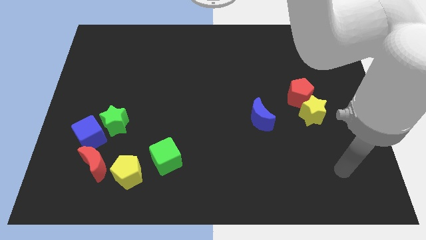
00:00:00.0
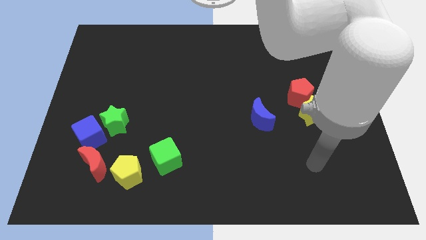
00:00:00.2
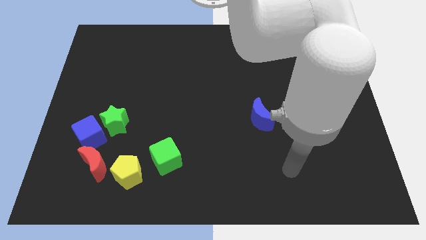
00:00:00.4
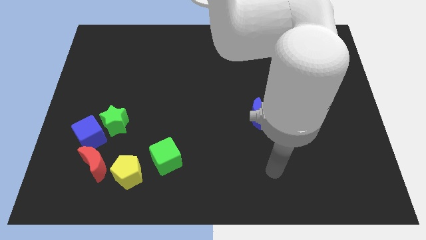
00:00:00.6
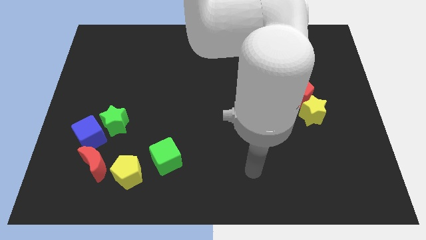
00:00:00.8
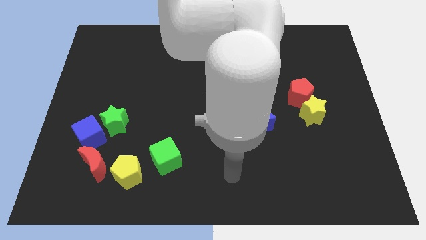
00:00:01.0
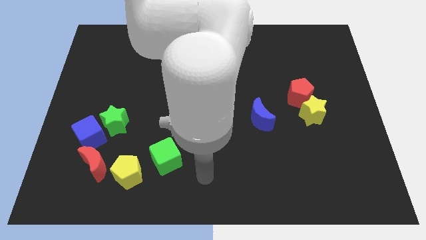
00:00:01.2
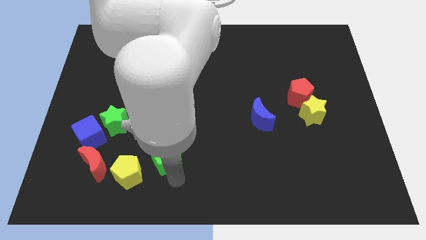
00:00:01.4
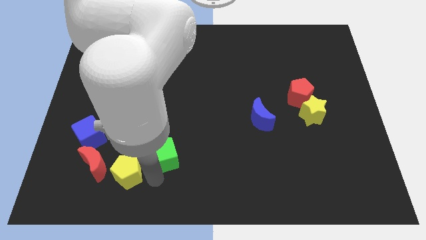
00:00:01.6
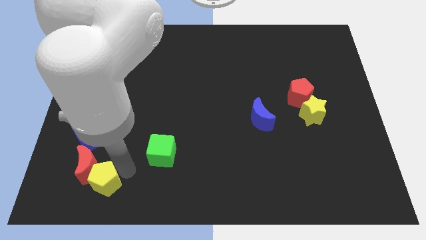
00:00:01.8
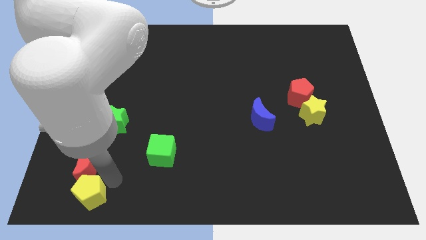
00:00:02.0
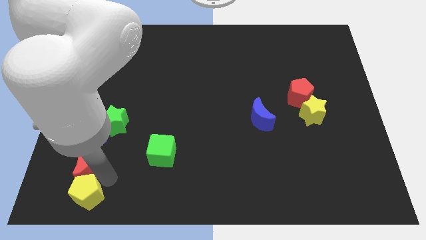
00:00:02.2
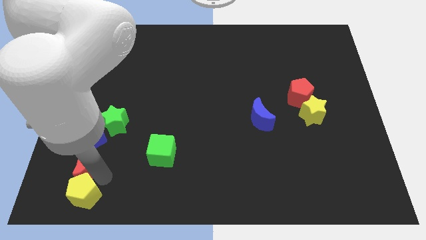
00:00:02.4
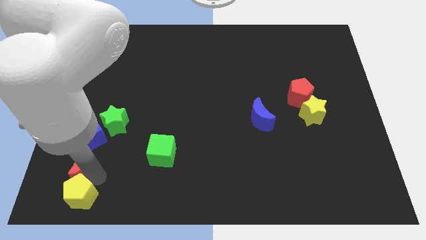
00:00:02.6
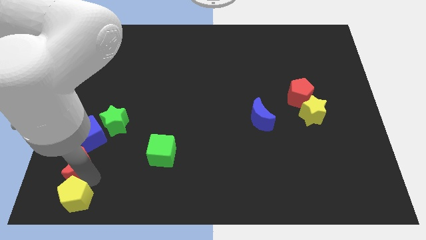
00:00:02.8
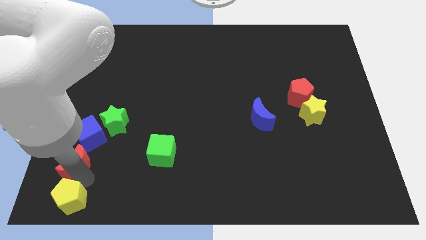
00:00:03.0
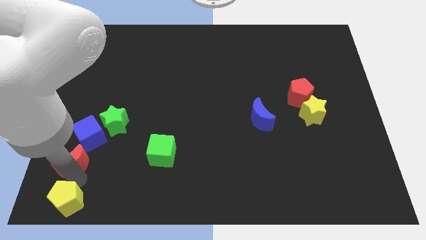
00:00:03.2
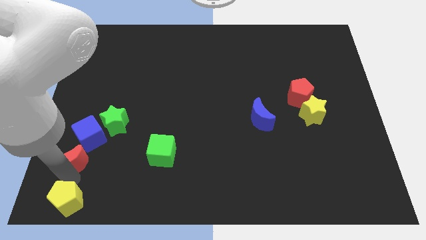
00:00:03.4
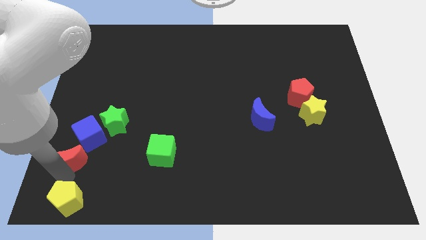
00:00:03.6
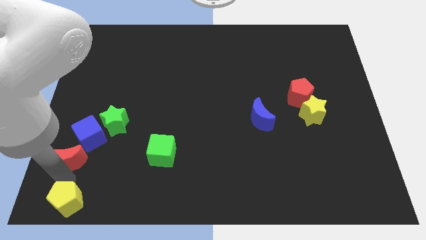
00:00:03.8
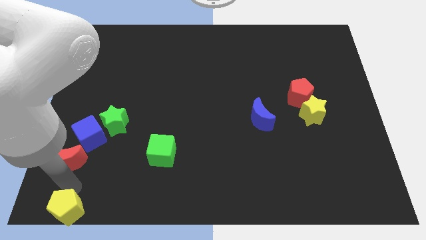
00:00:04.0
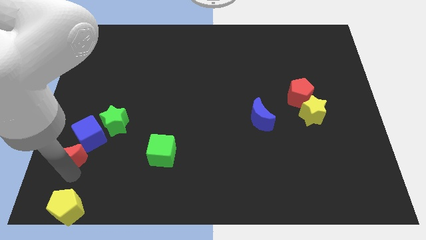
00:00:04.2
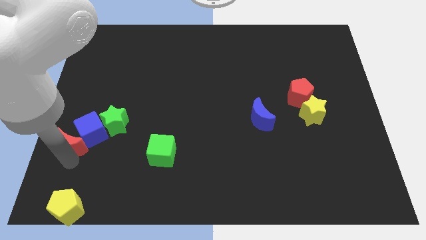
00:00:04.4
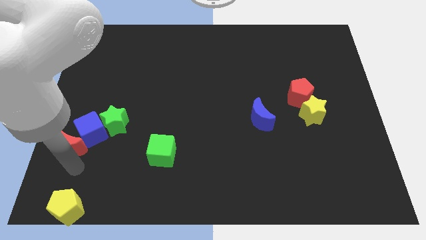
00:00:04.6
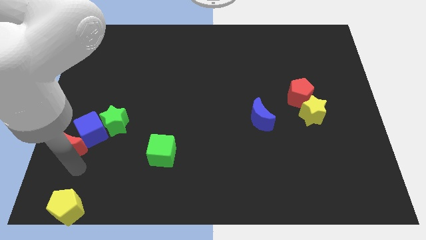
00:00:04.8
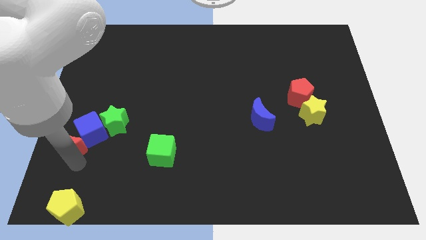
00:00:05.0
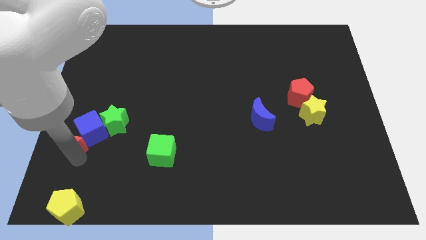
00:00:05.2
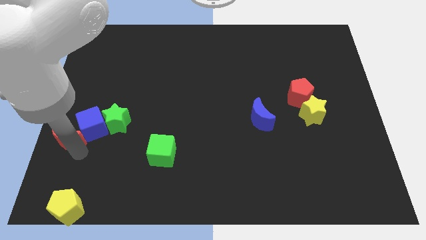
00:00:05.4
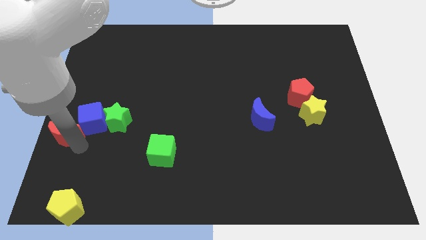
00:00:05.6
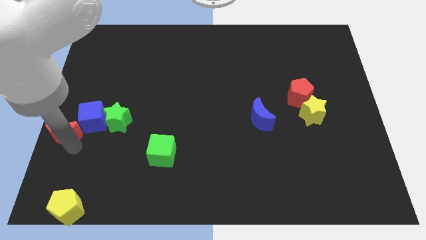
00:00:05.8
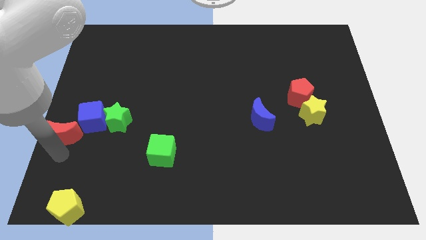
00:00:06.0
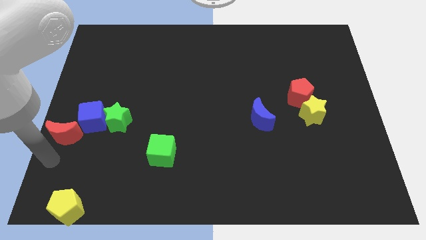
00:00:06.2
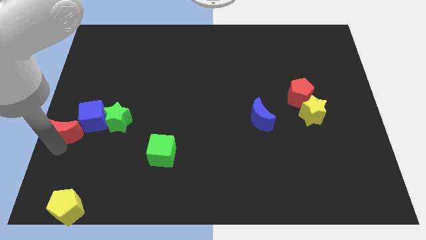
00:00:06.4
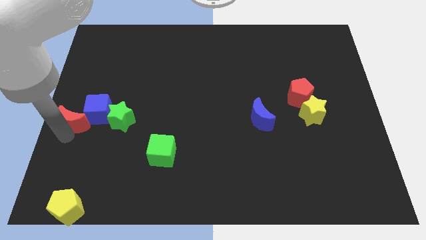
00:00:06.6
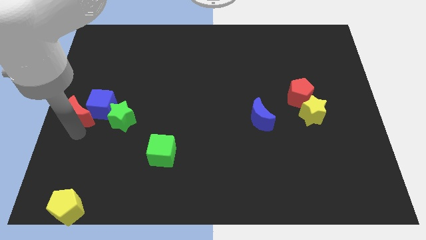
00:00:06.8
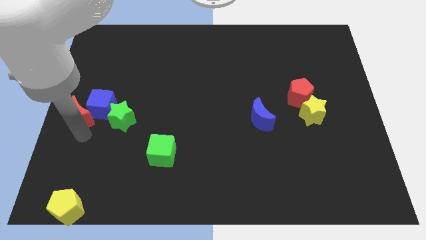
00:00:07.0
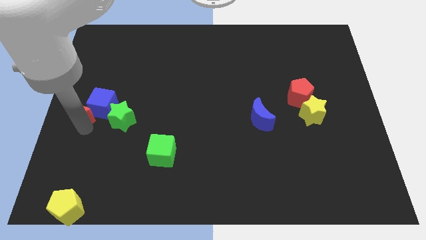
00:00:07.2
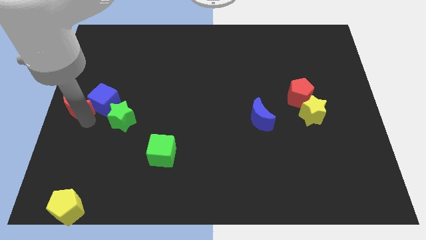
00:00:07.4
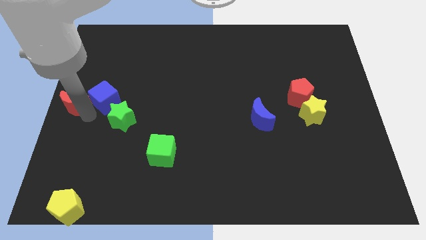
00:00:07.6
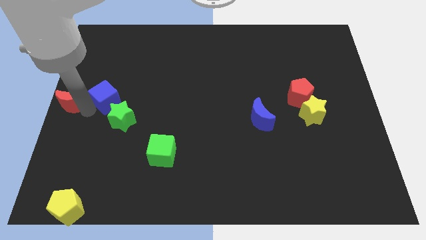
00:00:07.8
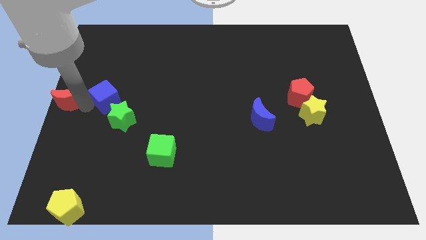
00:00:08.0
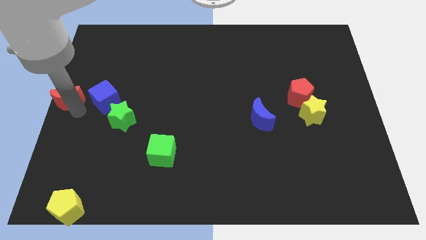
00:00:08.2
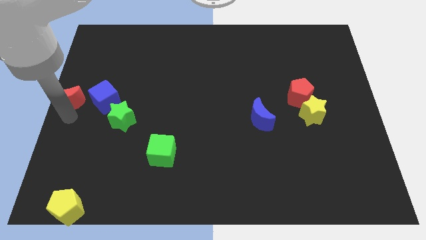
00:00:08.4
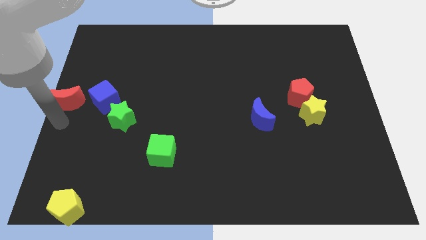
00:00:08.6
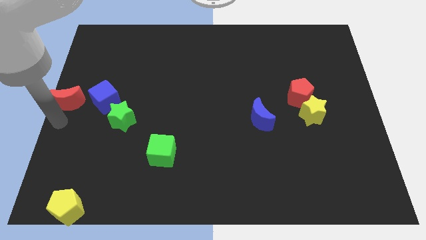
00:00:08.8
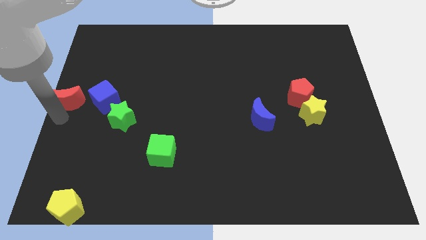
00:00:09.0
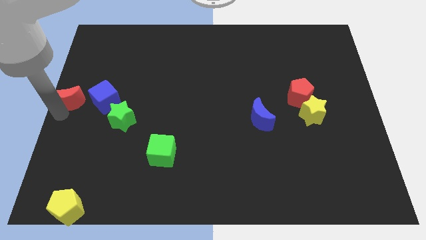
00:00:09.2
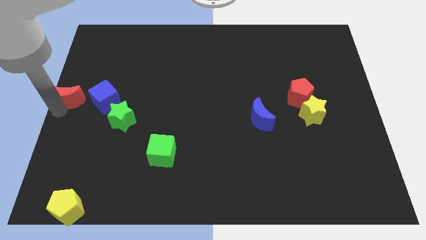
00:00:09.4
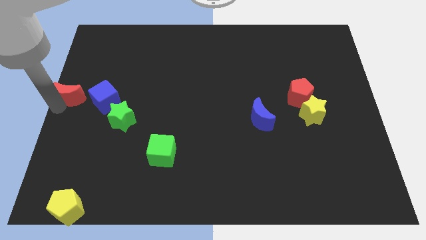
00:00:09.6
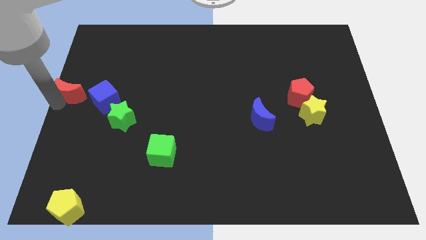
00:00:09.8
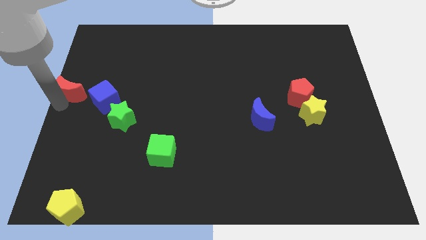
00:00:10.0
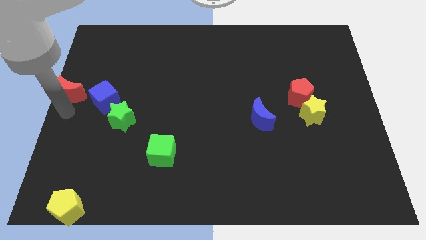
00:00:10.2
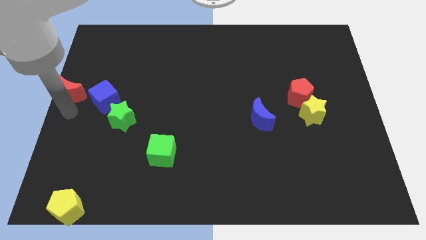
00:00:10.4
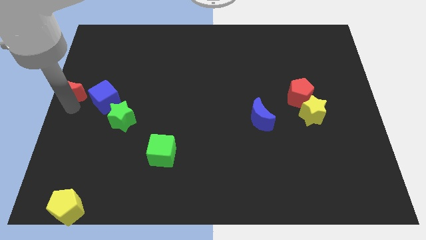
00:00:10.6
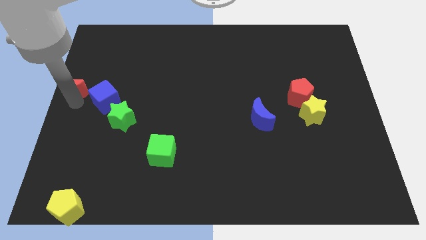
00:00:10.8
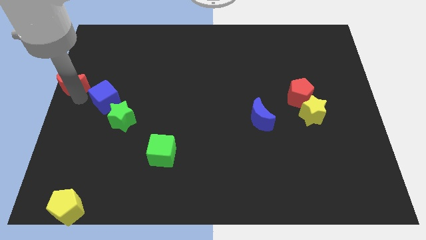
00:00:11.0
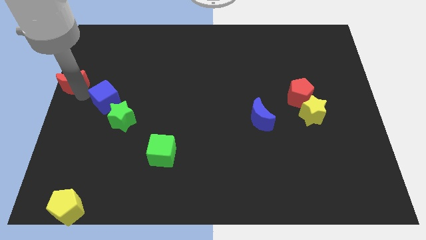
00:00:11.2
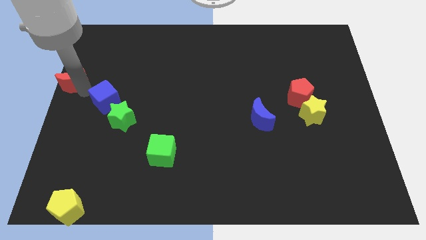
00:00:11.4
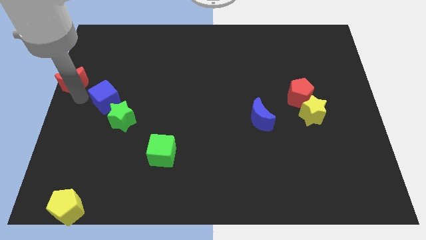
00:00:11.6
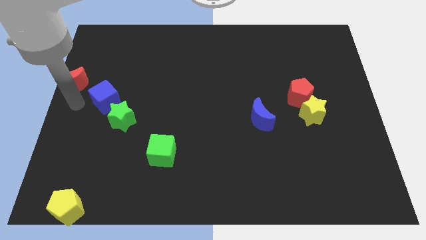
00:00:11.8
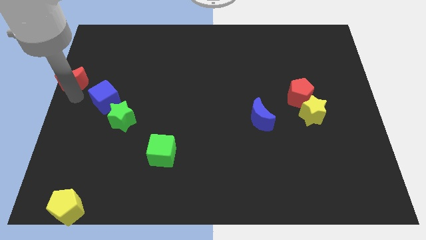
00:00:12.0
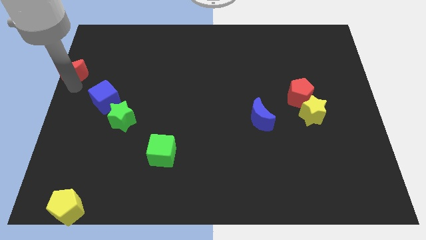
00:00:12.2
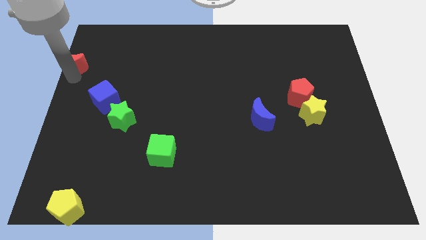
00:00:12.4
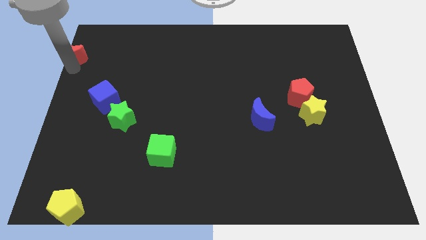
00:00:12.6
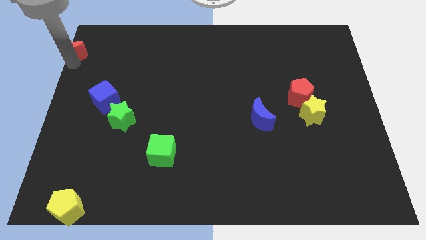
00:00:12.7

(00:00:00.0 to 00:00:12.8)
put the red moon to the top left of the board
